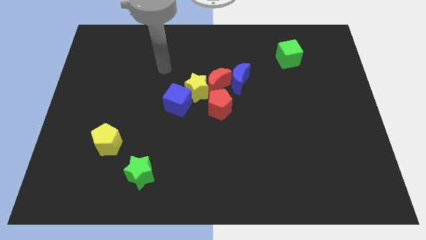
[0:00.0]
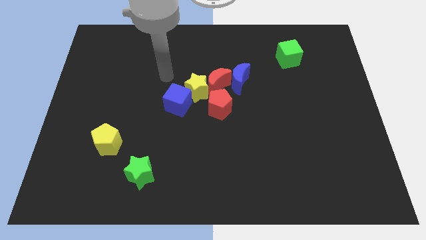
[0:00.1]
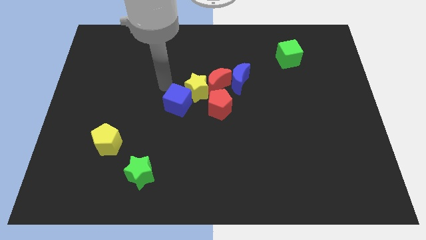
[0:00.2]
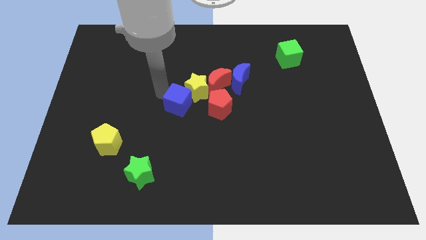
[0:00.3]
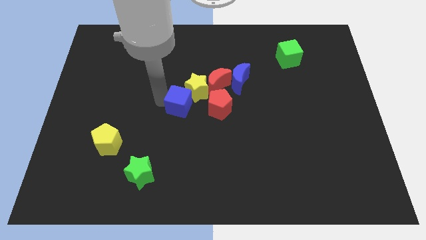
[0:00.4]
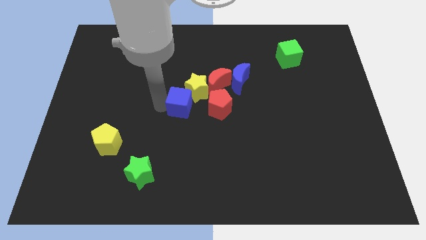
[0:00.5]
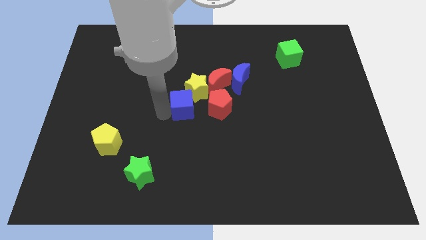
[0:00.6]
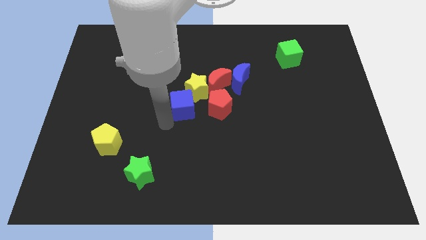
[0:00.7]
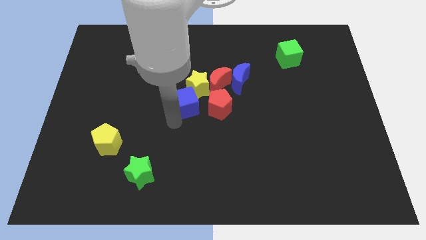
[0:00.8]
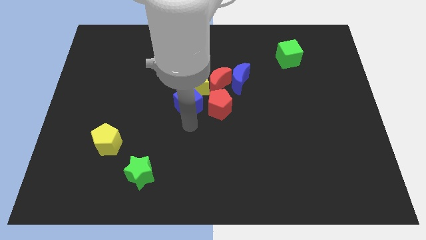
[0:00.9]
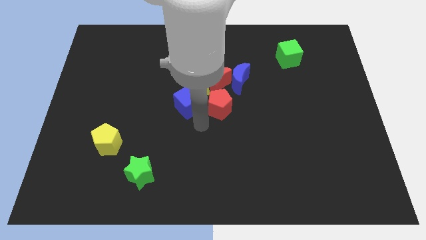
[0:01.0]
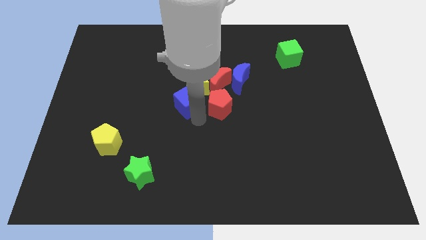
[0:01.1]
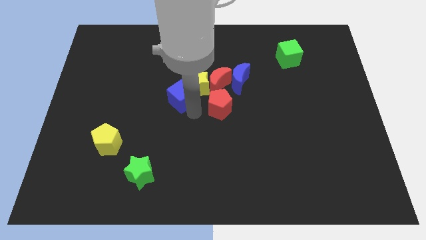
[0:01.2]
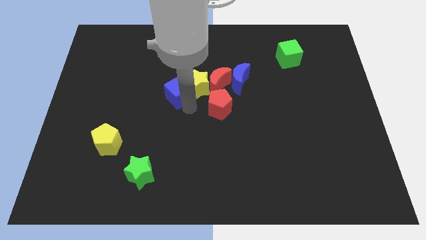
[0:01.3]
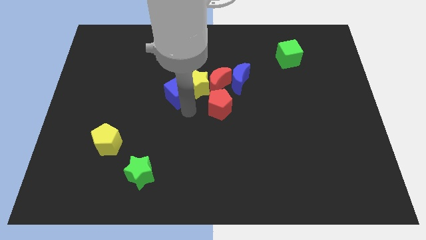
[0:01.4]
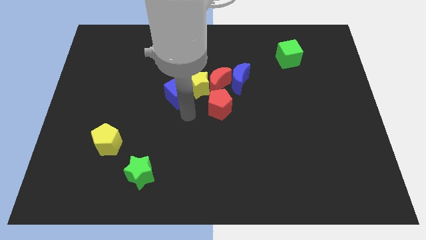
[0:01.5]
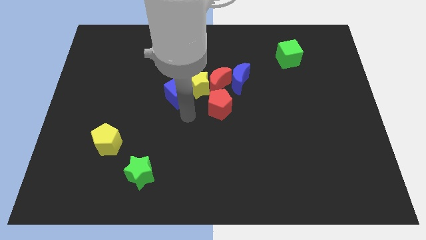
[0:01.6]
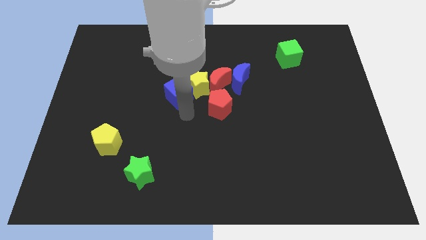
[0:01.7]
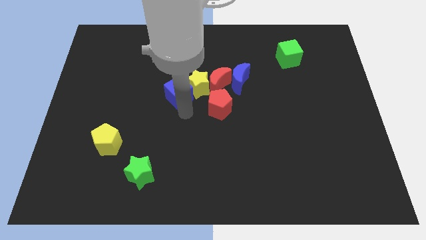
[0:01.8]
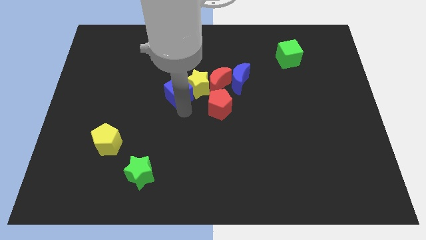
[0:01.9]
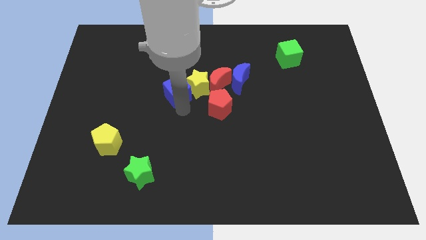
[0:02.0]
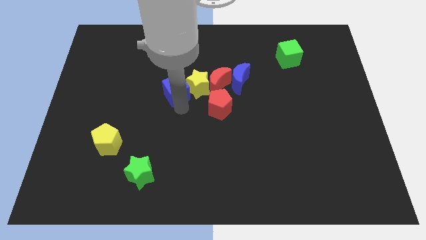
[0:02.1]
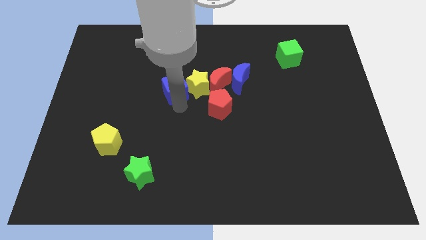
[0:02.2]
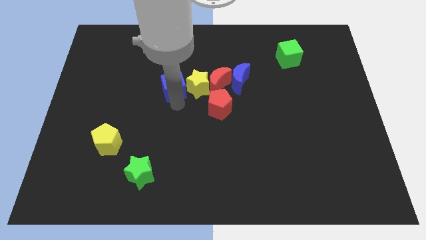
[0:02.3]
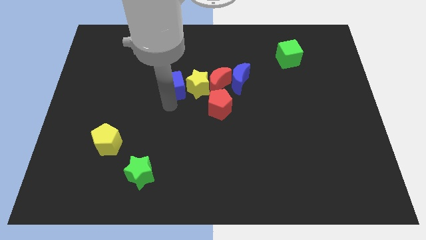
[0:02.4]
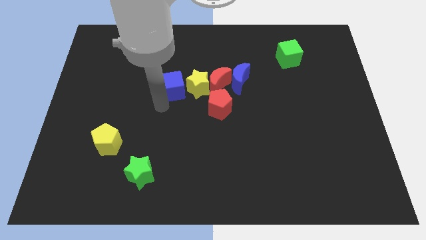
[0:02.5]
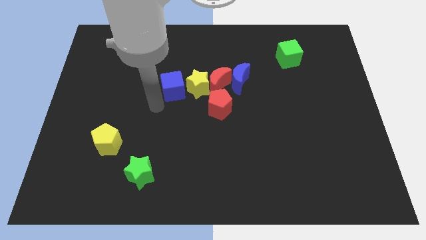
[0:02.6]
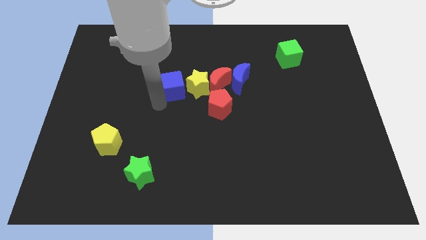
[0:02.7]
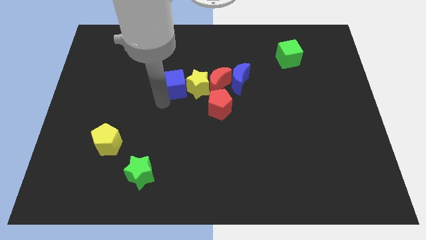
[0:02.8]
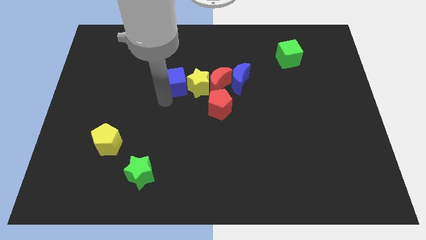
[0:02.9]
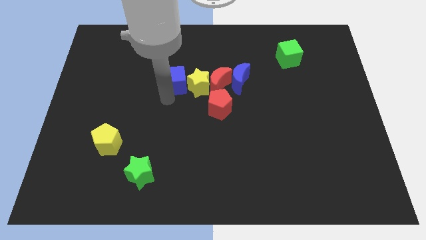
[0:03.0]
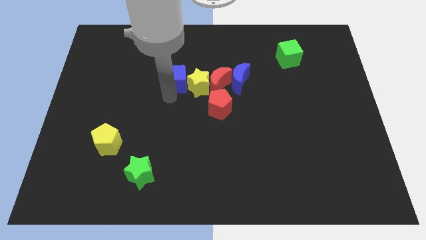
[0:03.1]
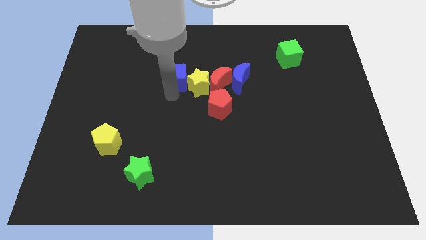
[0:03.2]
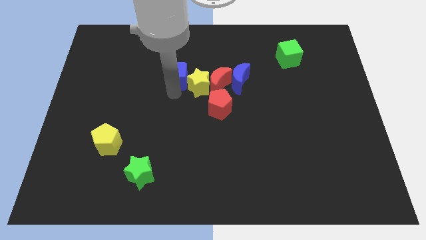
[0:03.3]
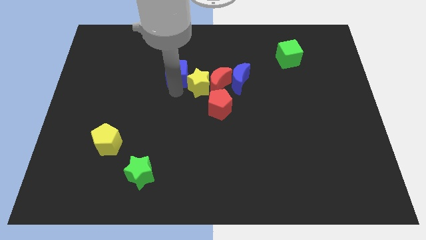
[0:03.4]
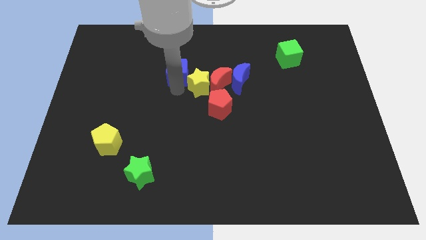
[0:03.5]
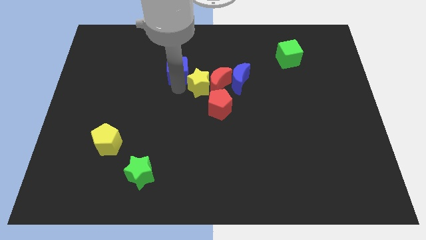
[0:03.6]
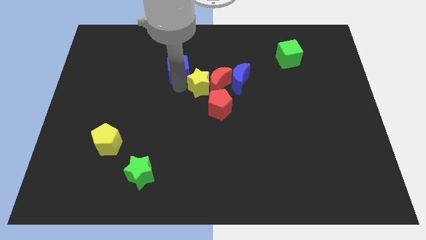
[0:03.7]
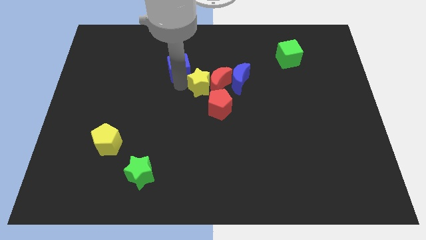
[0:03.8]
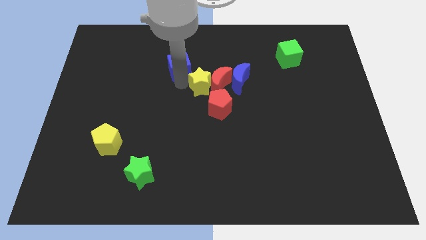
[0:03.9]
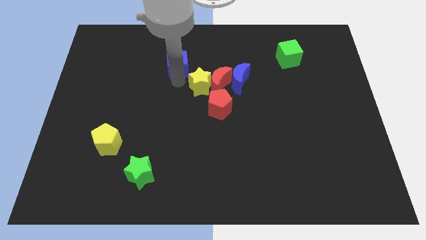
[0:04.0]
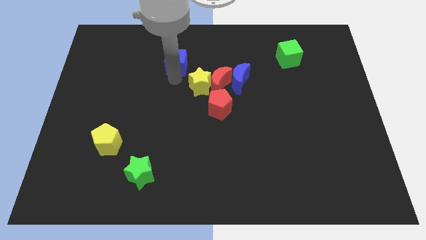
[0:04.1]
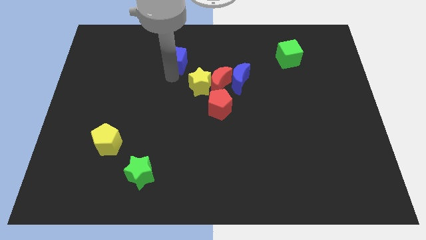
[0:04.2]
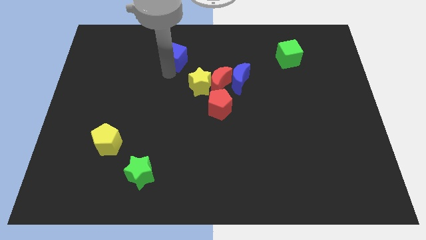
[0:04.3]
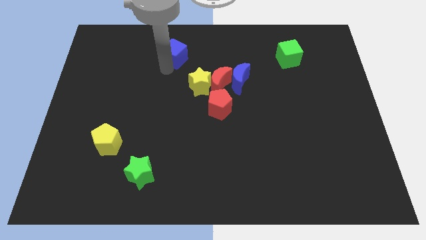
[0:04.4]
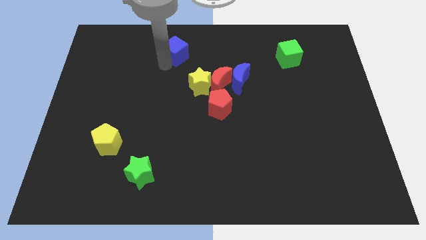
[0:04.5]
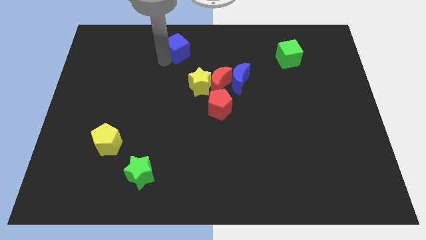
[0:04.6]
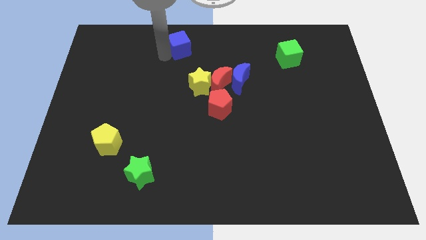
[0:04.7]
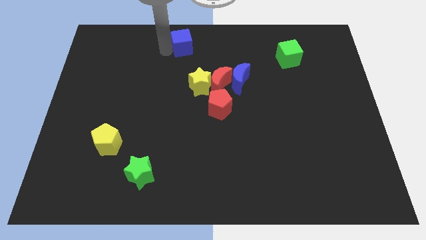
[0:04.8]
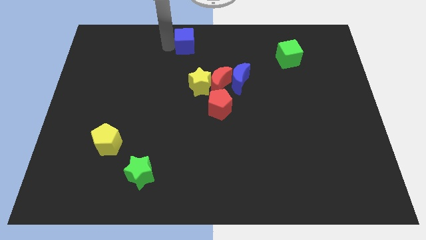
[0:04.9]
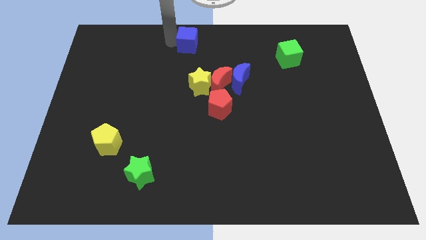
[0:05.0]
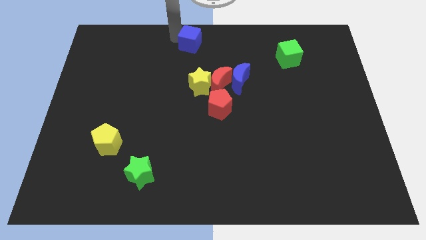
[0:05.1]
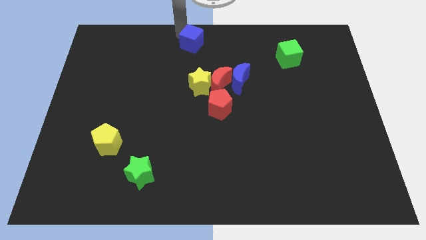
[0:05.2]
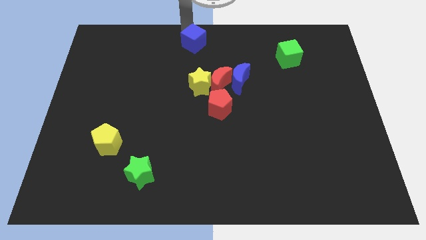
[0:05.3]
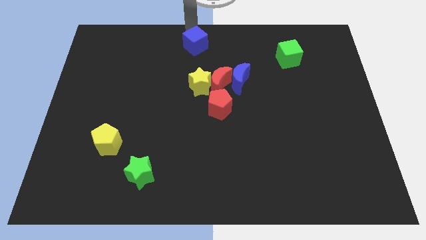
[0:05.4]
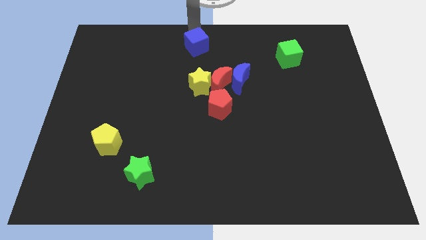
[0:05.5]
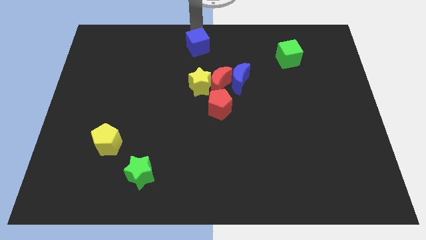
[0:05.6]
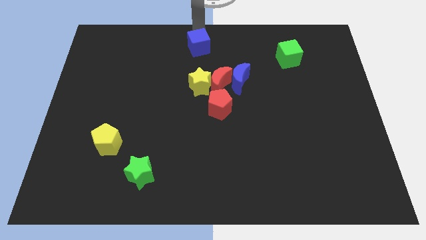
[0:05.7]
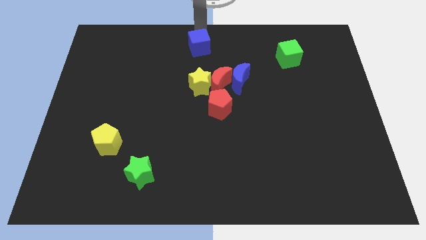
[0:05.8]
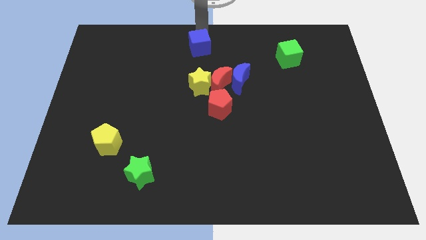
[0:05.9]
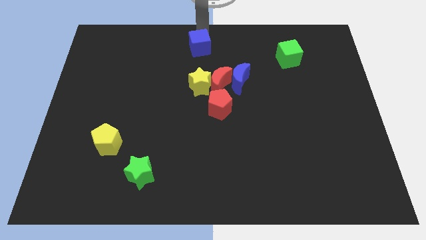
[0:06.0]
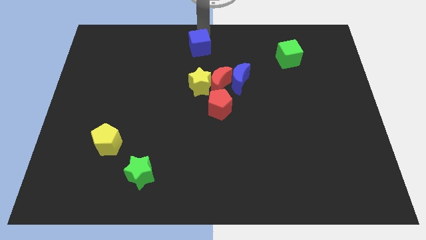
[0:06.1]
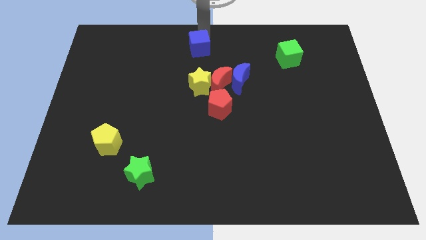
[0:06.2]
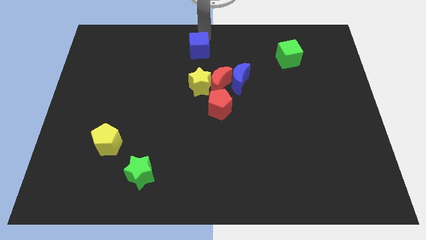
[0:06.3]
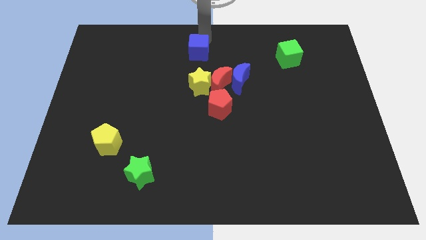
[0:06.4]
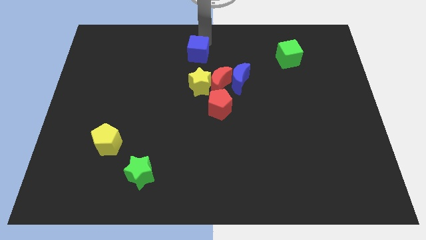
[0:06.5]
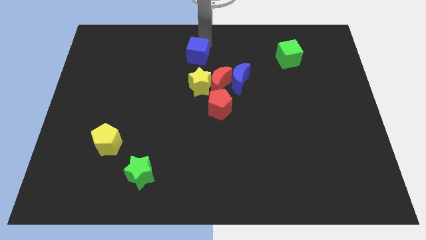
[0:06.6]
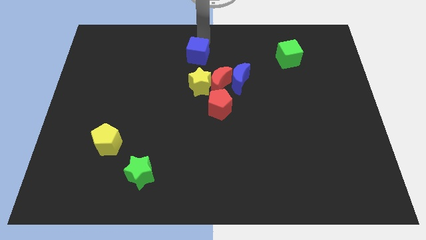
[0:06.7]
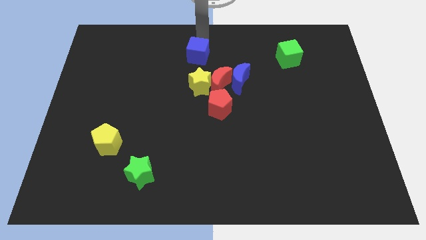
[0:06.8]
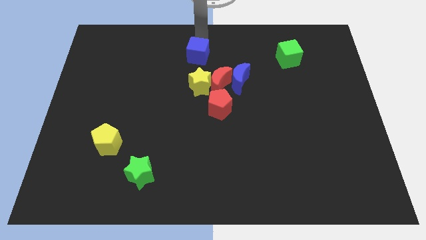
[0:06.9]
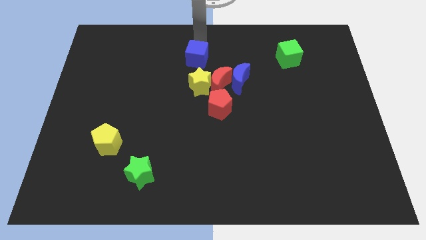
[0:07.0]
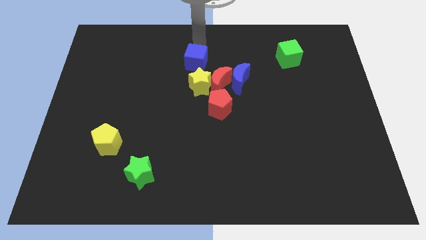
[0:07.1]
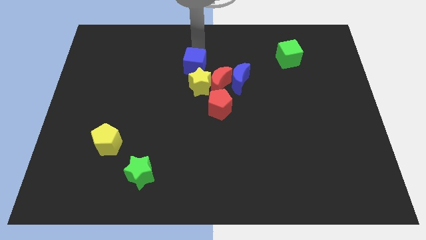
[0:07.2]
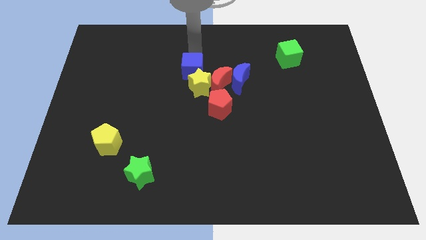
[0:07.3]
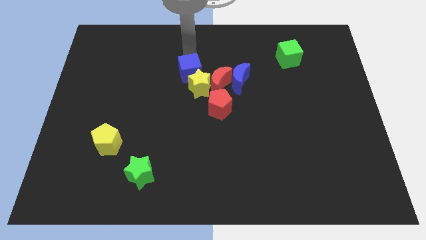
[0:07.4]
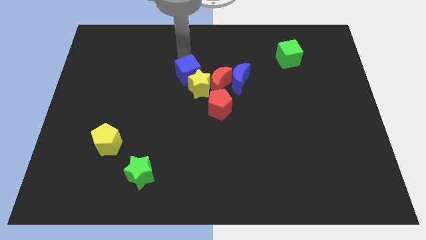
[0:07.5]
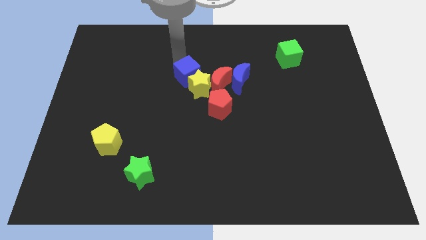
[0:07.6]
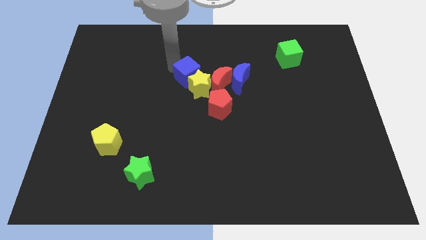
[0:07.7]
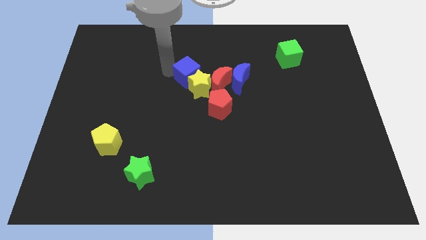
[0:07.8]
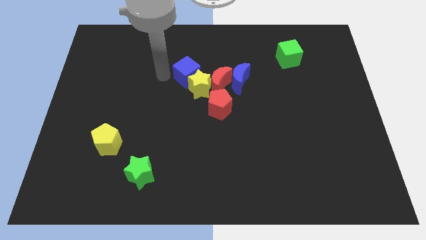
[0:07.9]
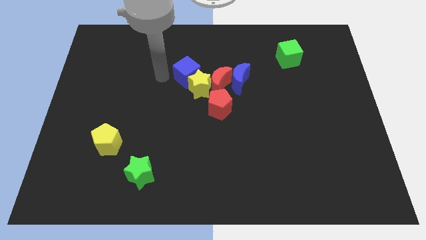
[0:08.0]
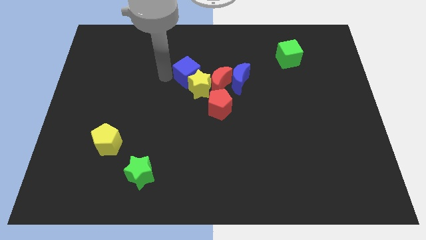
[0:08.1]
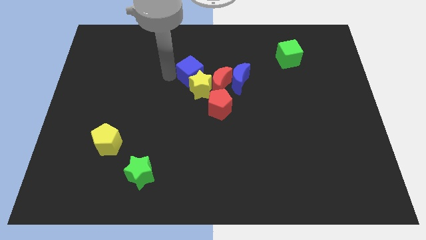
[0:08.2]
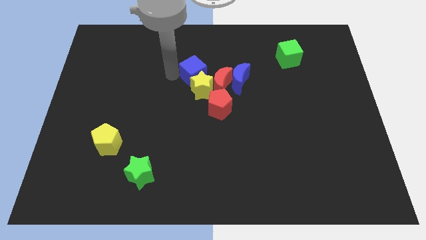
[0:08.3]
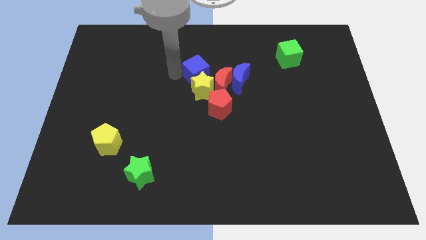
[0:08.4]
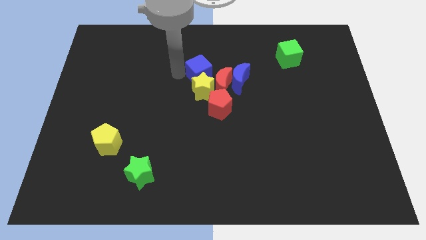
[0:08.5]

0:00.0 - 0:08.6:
slide the blue cube above the red pentagon
